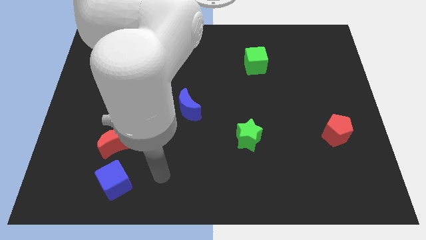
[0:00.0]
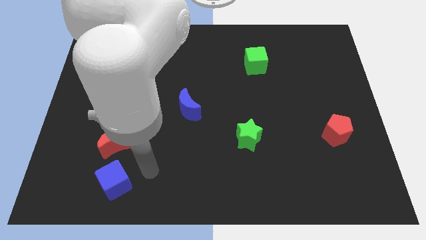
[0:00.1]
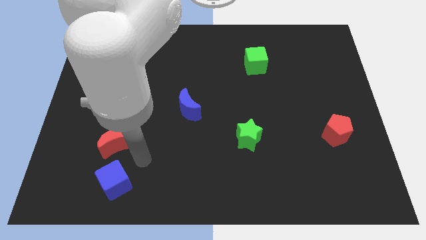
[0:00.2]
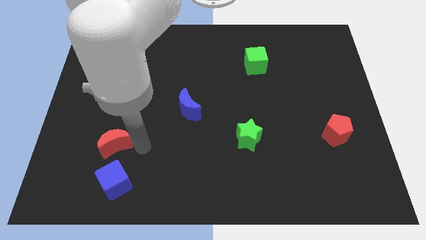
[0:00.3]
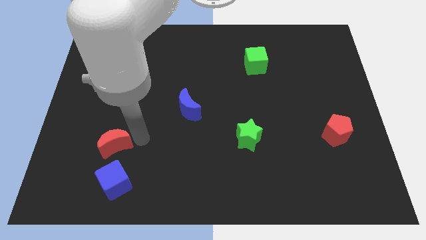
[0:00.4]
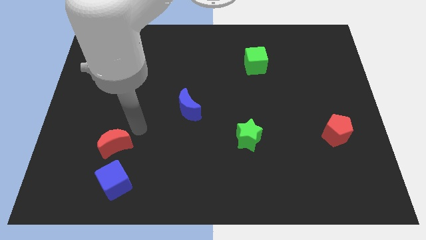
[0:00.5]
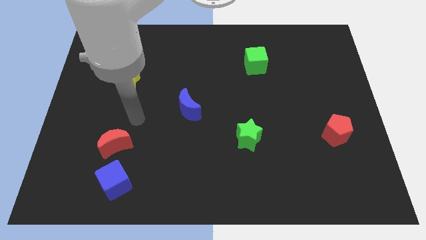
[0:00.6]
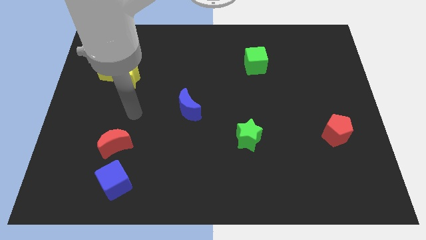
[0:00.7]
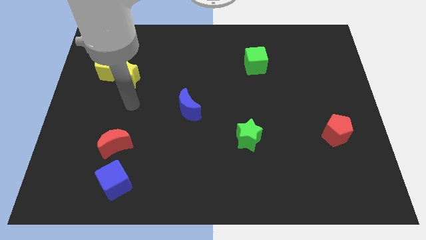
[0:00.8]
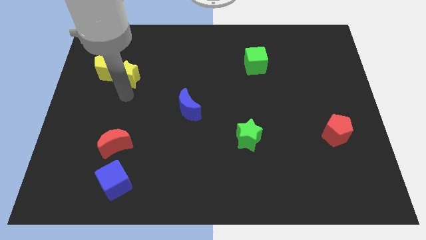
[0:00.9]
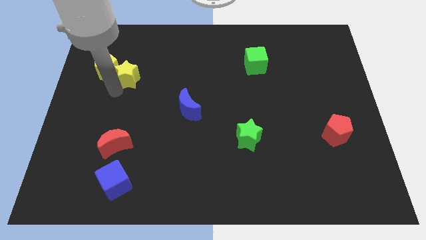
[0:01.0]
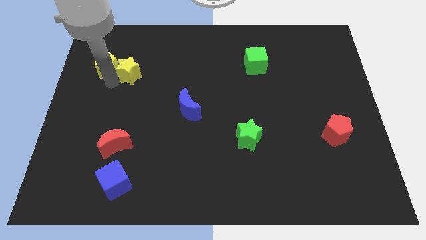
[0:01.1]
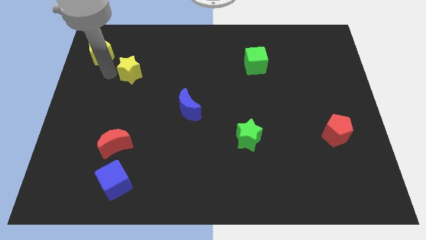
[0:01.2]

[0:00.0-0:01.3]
pull the yellow star apart from the yellow pentagon

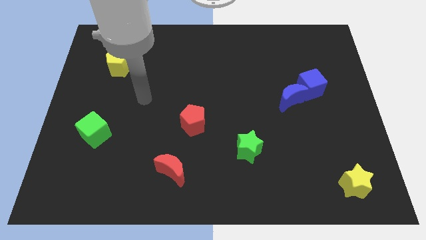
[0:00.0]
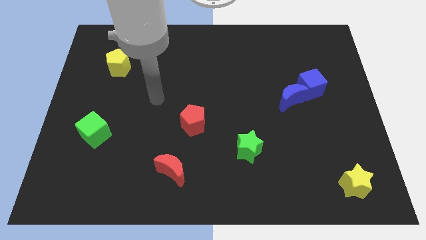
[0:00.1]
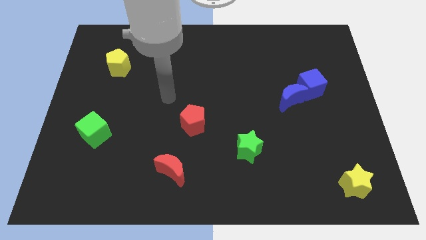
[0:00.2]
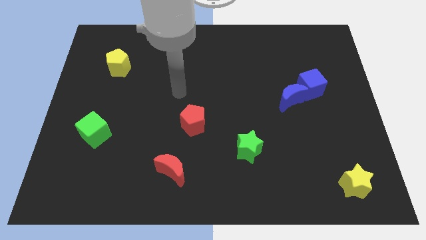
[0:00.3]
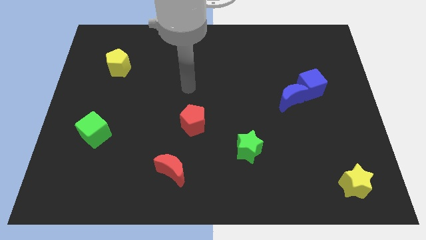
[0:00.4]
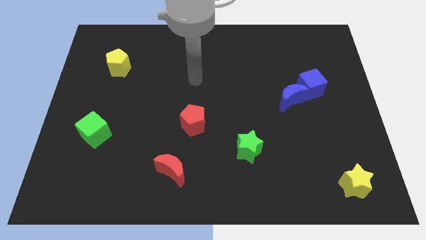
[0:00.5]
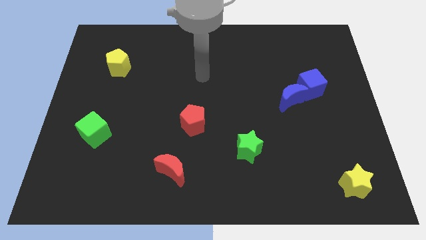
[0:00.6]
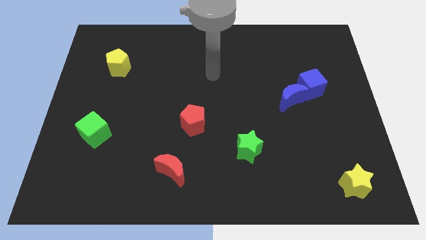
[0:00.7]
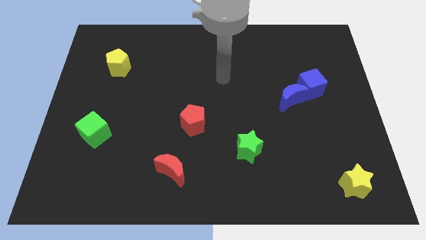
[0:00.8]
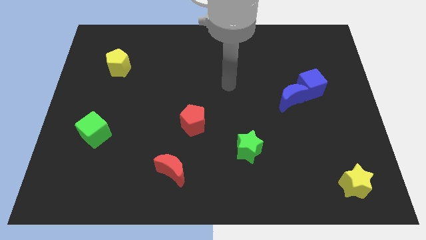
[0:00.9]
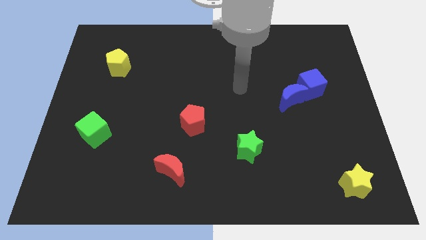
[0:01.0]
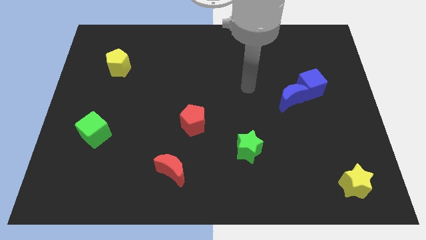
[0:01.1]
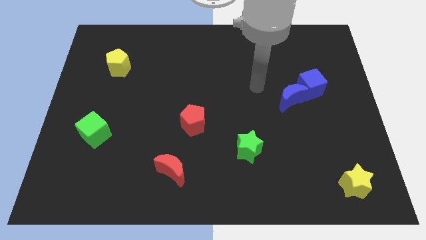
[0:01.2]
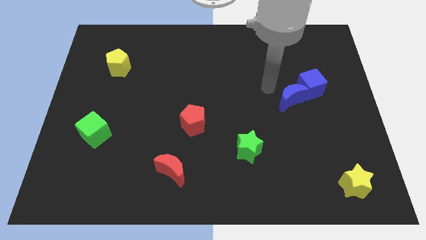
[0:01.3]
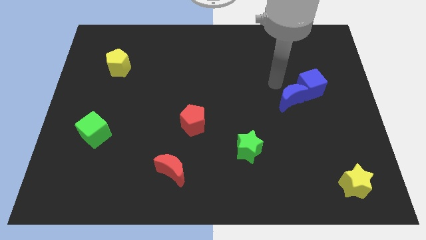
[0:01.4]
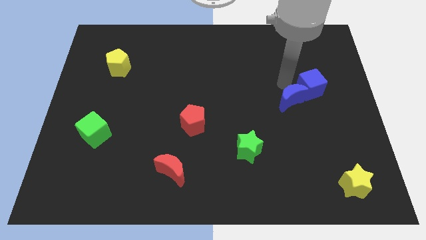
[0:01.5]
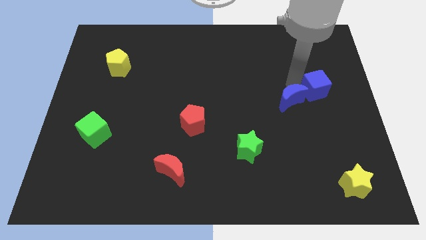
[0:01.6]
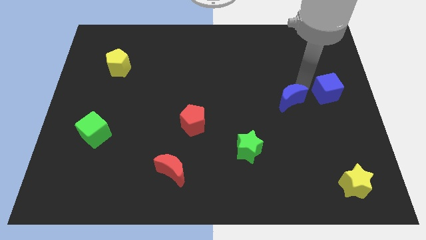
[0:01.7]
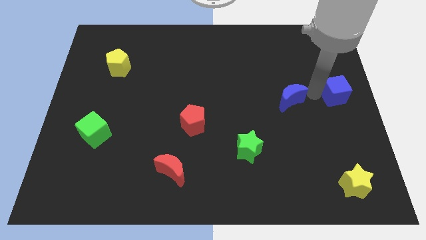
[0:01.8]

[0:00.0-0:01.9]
separate the blue moon from the blue cube

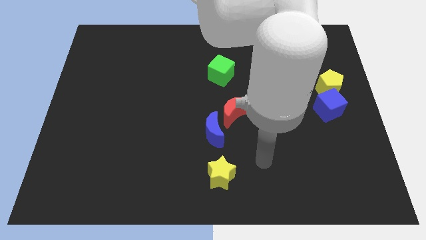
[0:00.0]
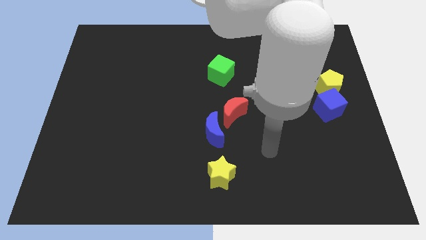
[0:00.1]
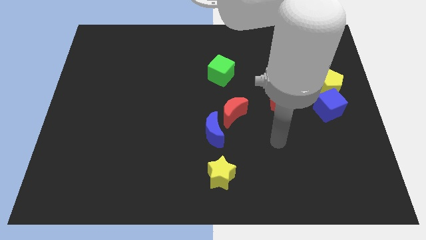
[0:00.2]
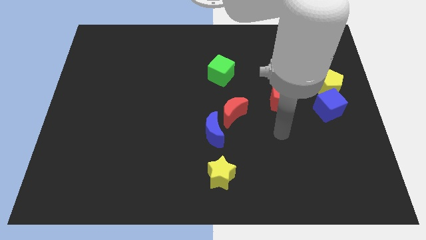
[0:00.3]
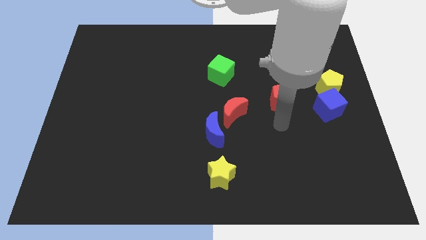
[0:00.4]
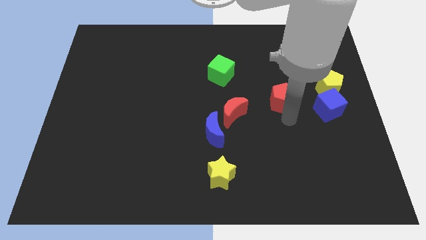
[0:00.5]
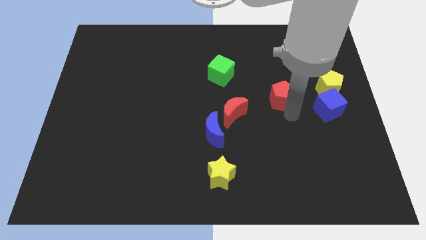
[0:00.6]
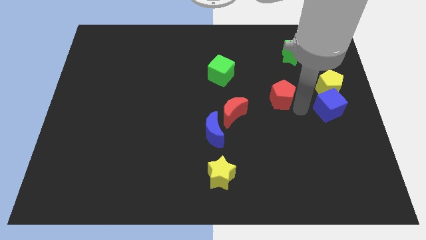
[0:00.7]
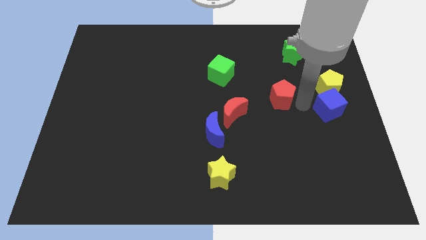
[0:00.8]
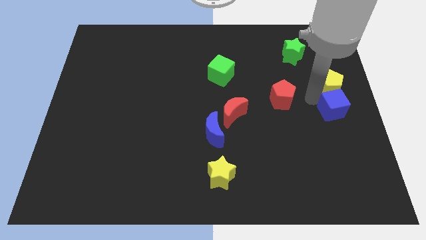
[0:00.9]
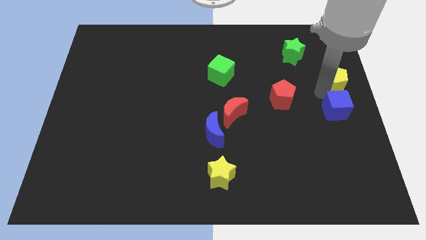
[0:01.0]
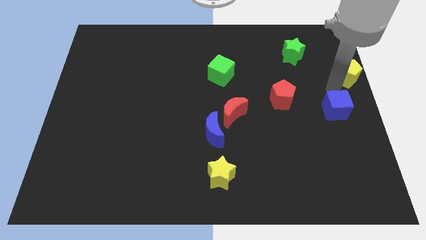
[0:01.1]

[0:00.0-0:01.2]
pull the blue cube apart from the yellow pentagon

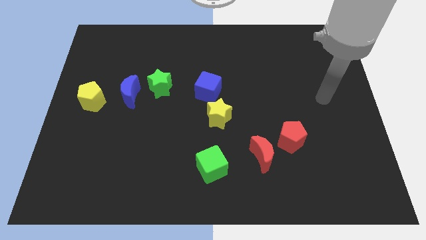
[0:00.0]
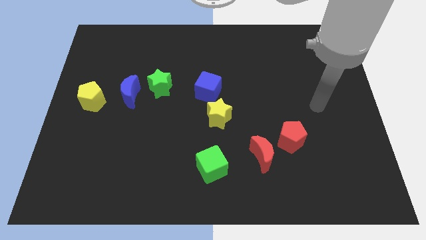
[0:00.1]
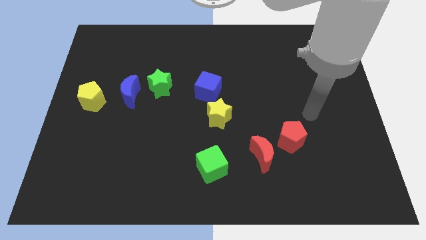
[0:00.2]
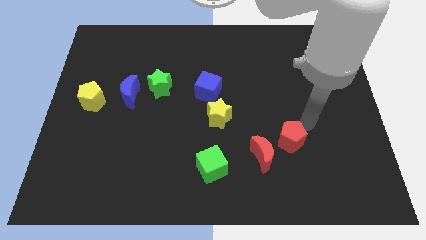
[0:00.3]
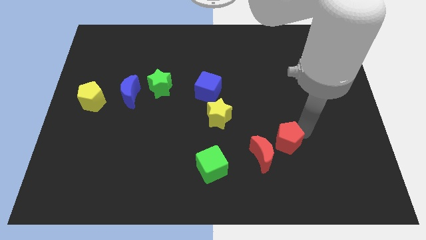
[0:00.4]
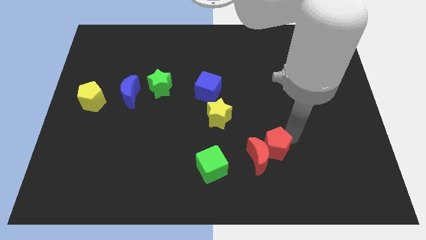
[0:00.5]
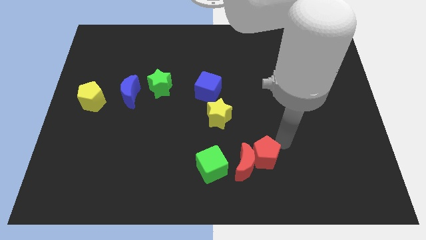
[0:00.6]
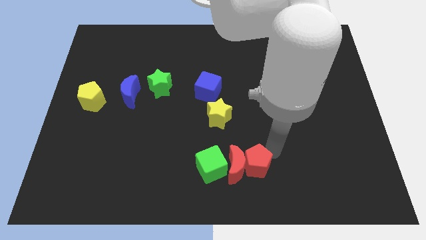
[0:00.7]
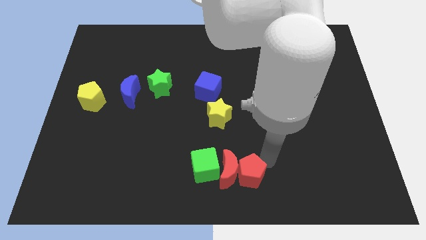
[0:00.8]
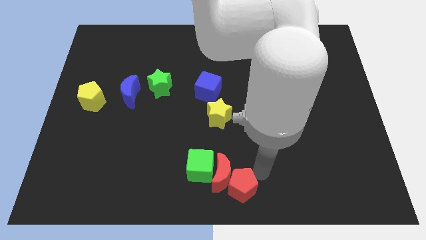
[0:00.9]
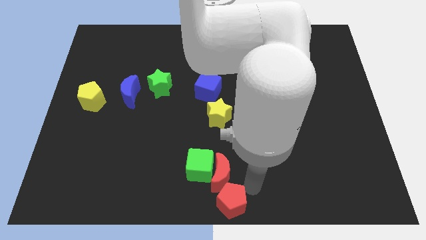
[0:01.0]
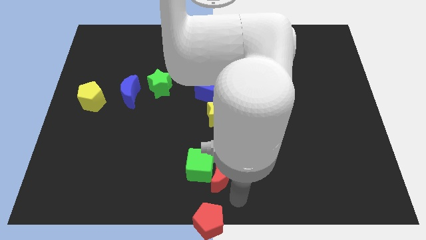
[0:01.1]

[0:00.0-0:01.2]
pull the red moon apart from the red pentagon

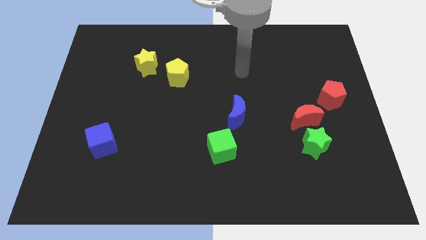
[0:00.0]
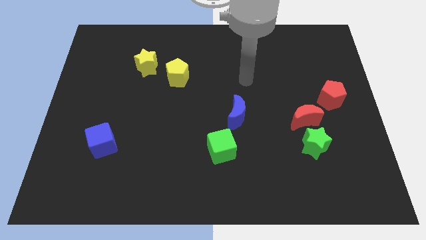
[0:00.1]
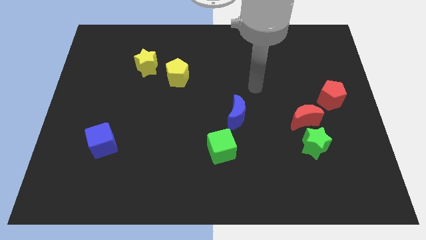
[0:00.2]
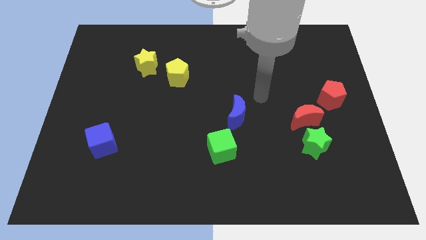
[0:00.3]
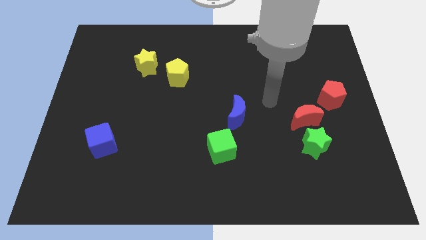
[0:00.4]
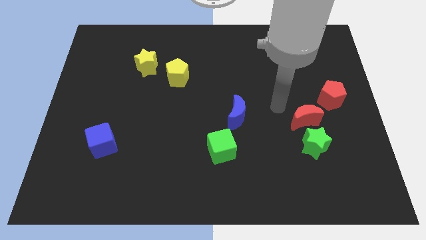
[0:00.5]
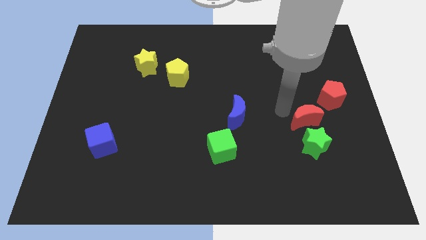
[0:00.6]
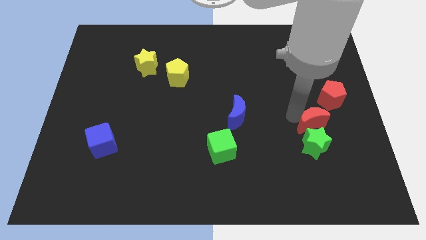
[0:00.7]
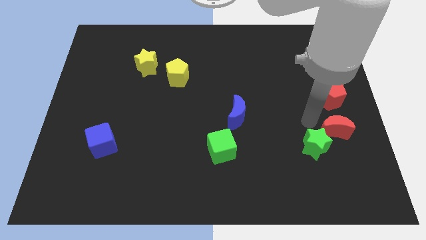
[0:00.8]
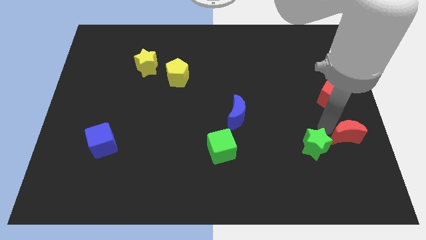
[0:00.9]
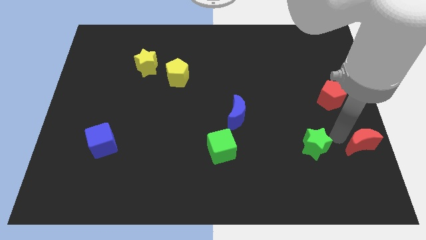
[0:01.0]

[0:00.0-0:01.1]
pull the green star apart from the red moon

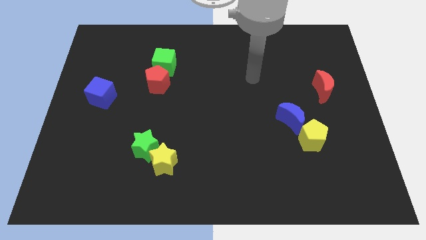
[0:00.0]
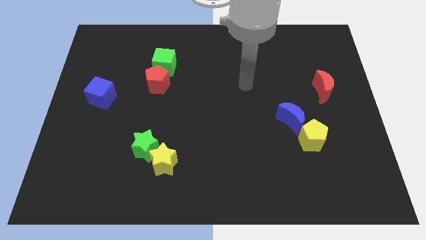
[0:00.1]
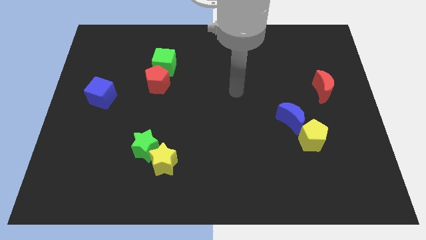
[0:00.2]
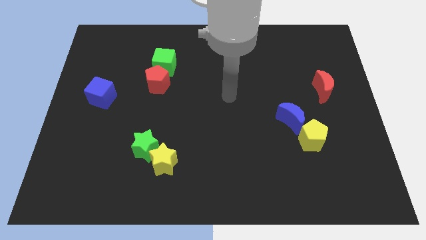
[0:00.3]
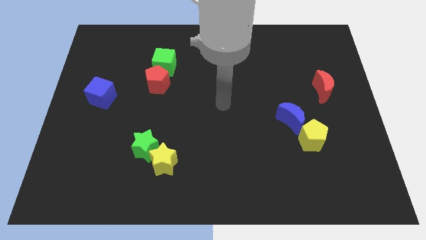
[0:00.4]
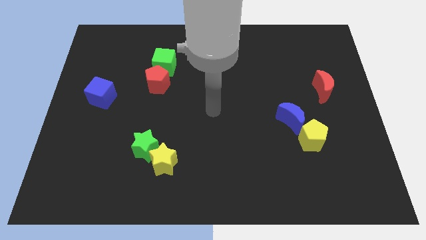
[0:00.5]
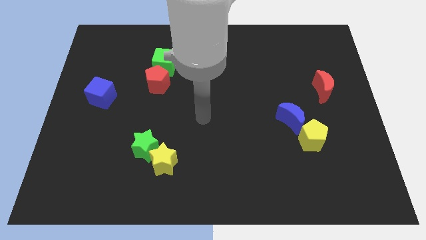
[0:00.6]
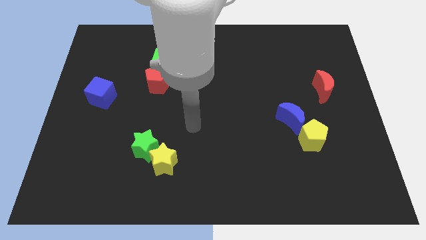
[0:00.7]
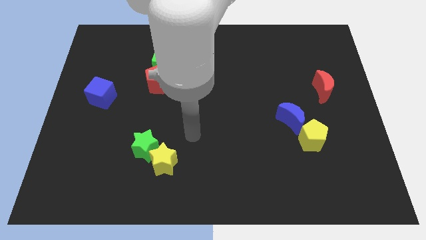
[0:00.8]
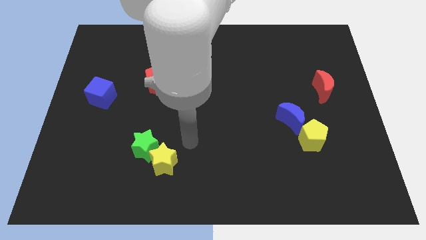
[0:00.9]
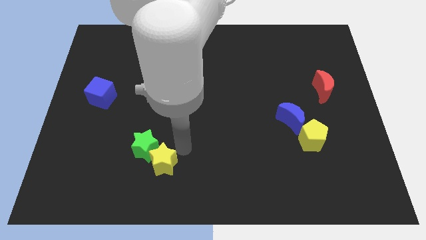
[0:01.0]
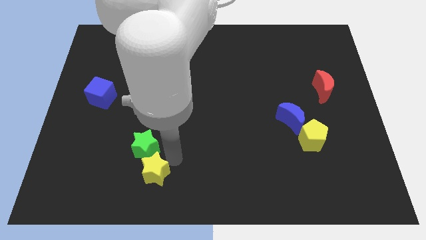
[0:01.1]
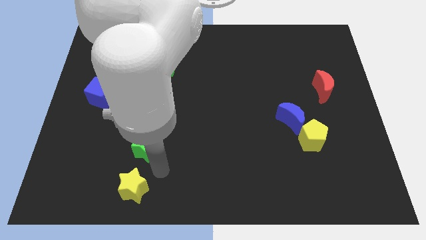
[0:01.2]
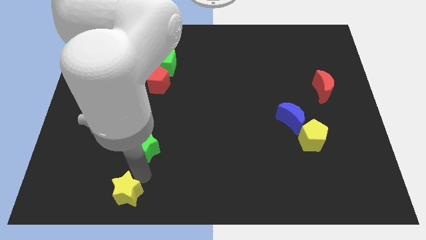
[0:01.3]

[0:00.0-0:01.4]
pull the green star apart from the yellow star

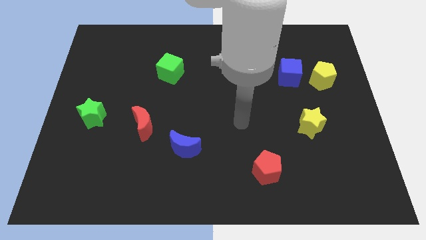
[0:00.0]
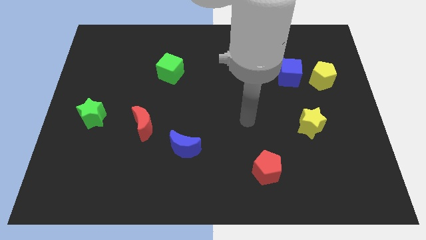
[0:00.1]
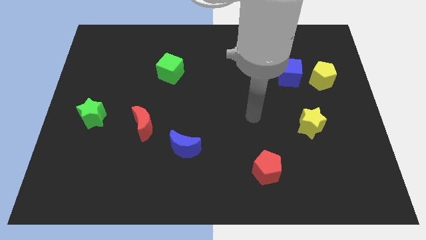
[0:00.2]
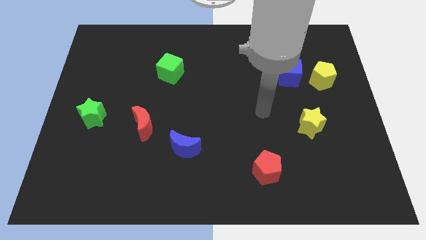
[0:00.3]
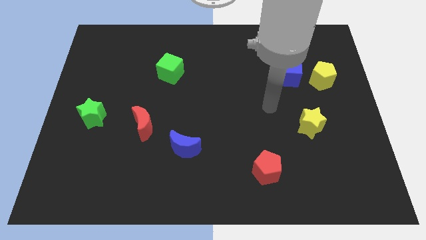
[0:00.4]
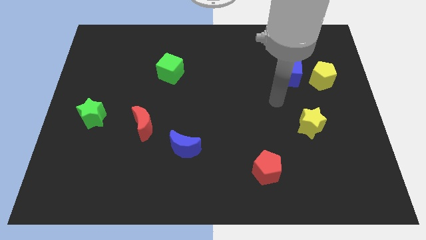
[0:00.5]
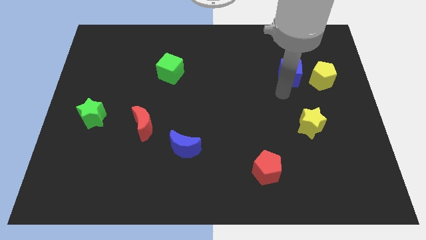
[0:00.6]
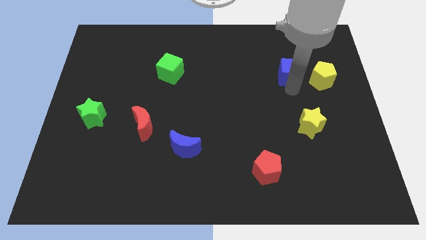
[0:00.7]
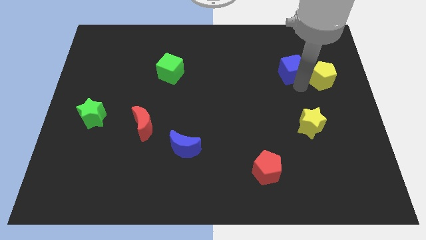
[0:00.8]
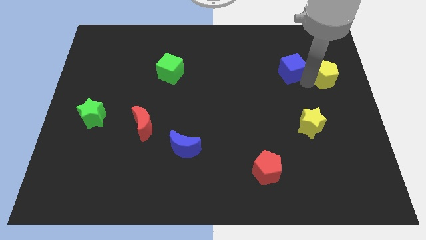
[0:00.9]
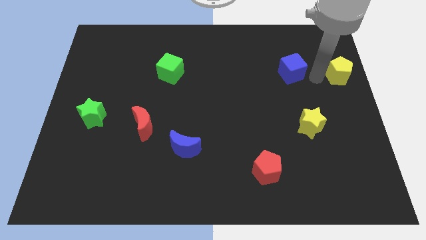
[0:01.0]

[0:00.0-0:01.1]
separate the blue cube from the yellow pentagon

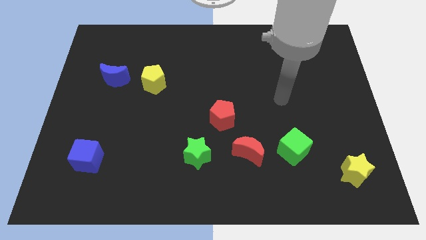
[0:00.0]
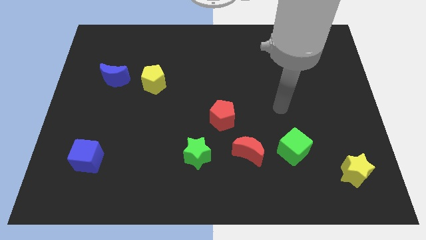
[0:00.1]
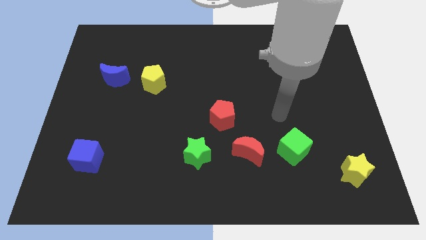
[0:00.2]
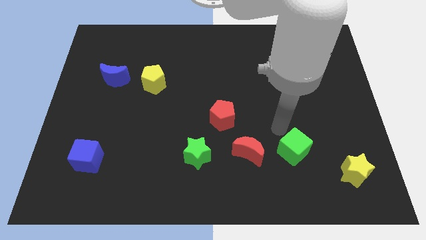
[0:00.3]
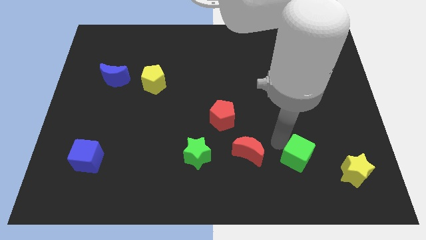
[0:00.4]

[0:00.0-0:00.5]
pull the red moon apart from the green cube
